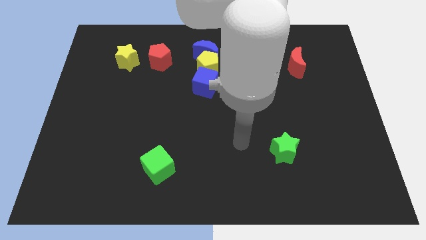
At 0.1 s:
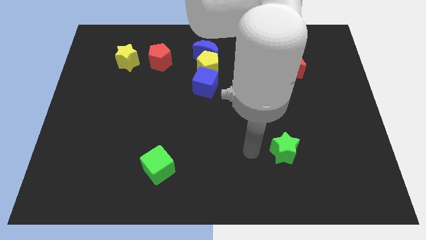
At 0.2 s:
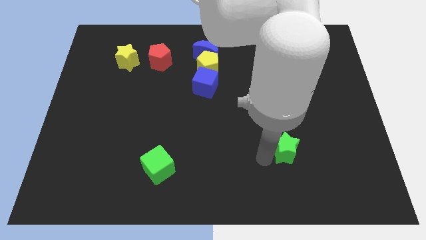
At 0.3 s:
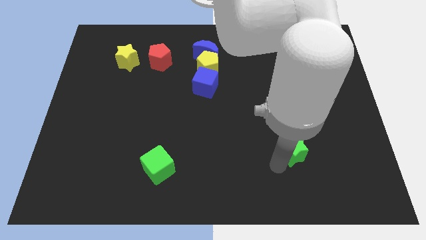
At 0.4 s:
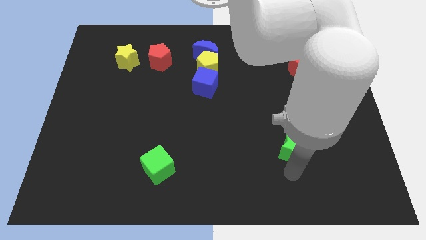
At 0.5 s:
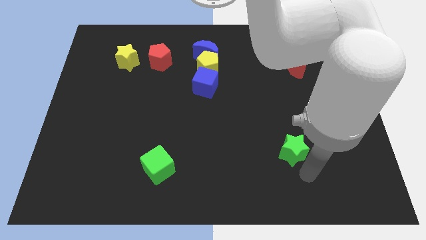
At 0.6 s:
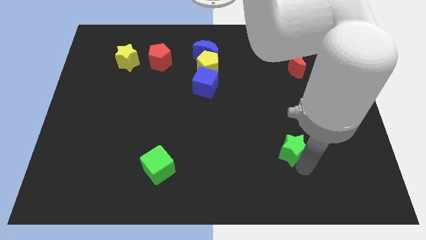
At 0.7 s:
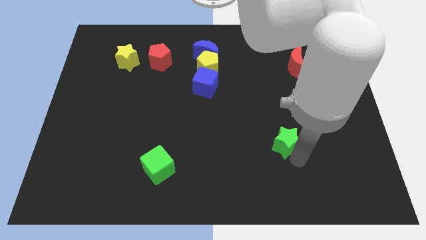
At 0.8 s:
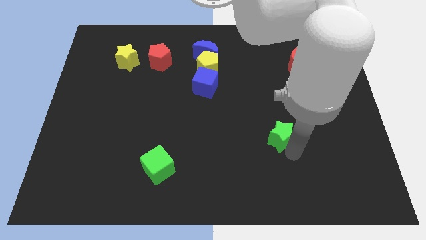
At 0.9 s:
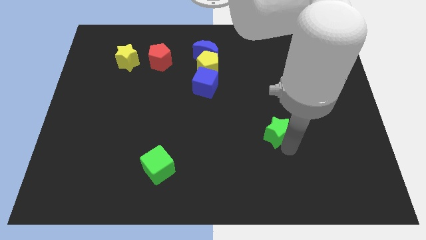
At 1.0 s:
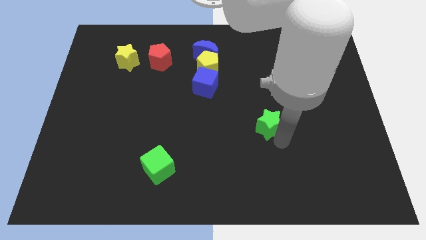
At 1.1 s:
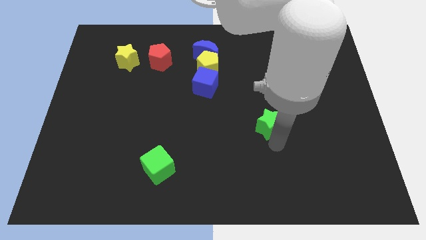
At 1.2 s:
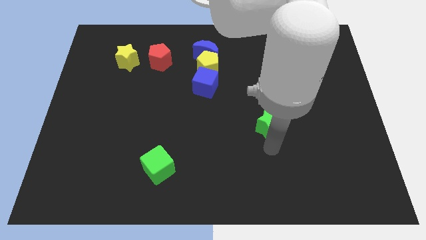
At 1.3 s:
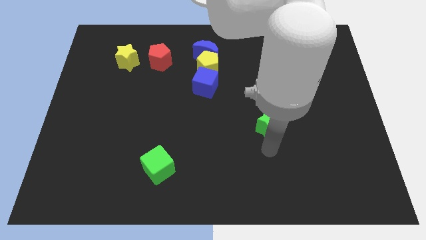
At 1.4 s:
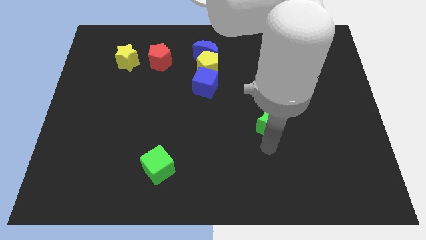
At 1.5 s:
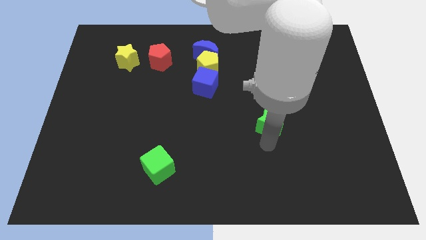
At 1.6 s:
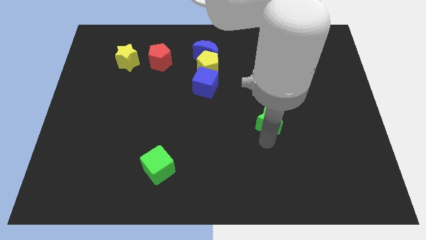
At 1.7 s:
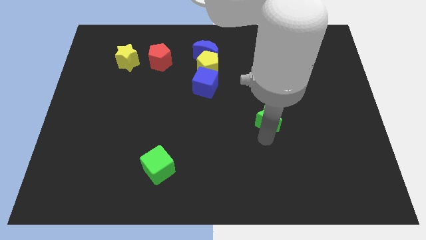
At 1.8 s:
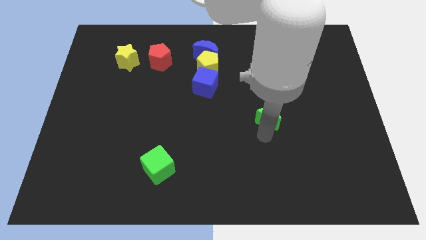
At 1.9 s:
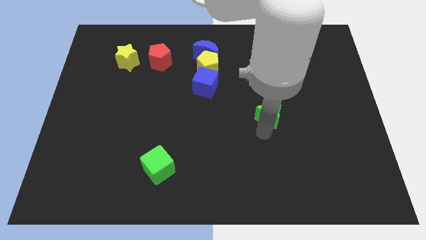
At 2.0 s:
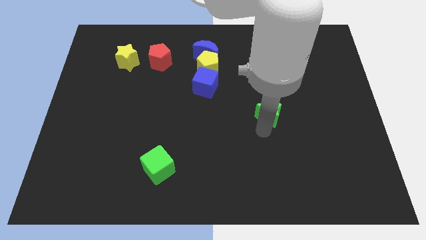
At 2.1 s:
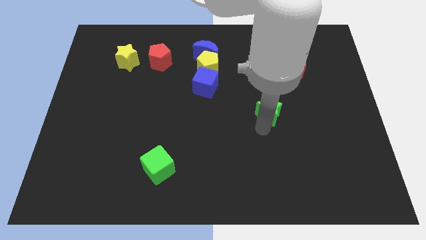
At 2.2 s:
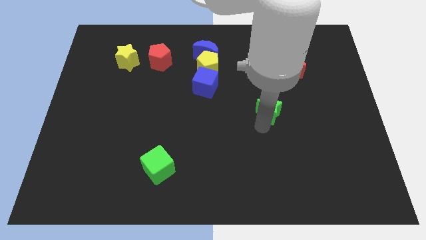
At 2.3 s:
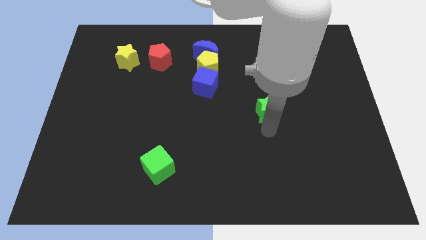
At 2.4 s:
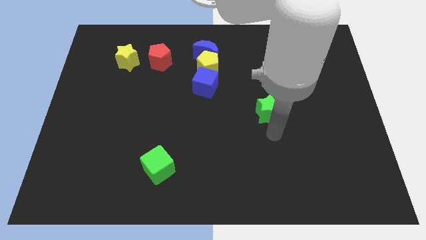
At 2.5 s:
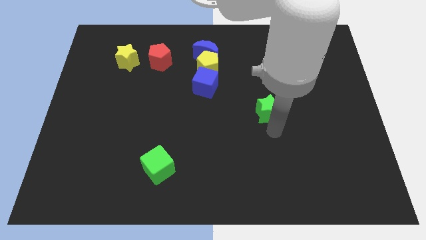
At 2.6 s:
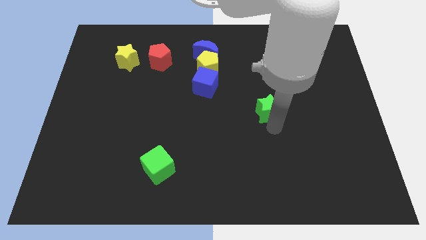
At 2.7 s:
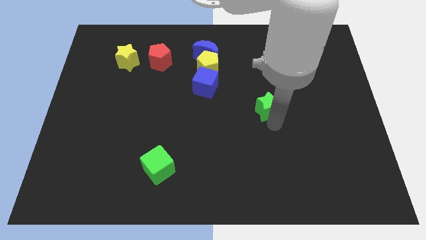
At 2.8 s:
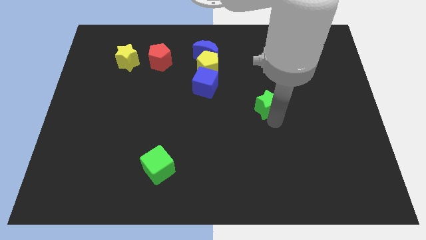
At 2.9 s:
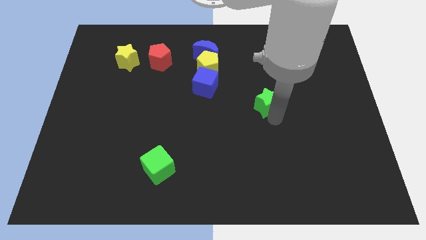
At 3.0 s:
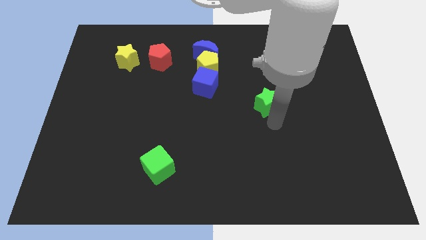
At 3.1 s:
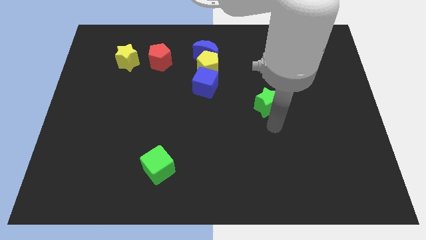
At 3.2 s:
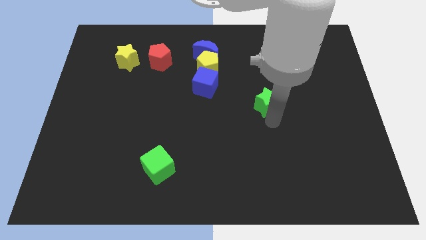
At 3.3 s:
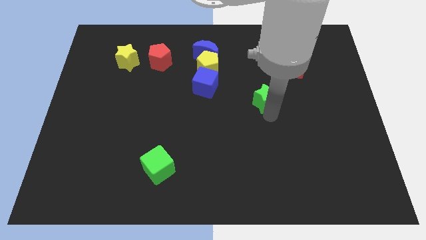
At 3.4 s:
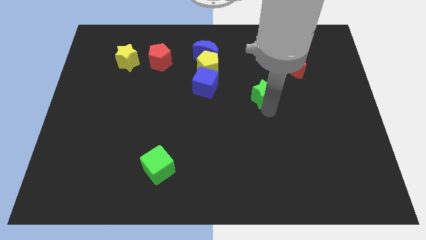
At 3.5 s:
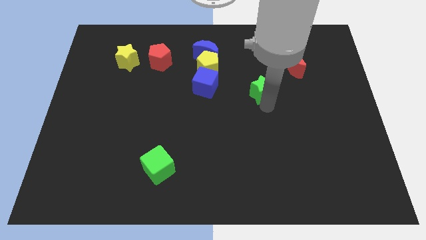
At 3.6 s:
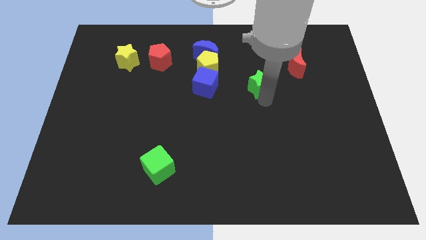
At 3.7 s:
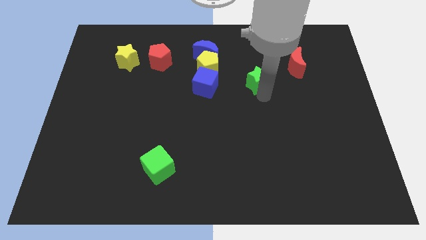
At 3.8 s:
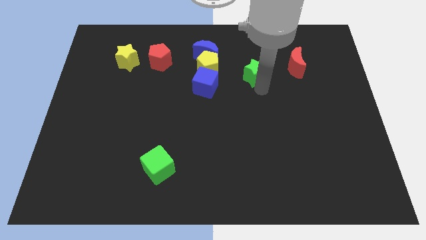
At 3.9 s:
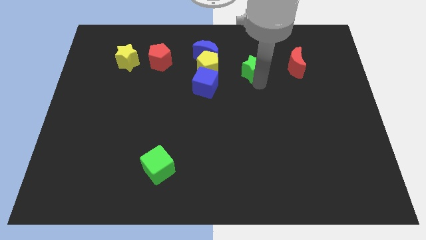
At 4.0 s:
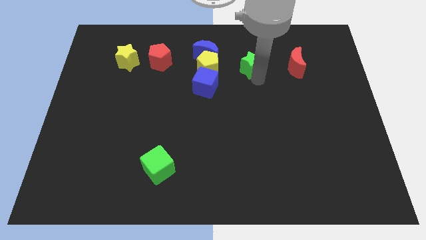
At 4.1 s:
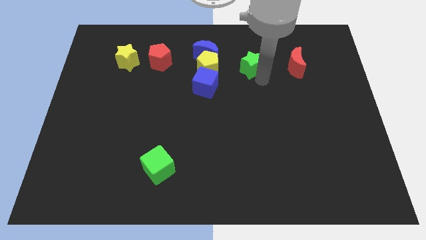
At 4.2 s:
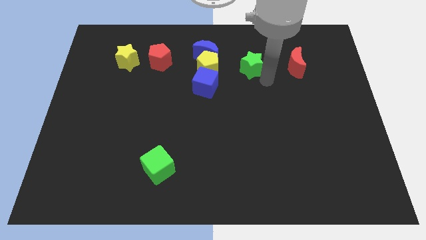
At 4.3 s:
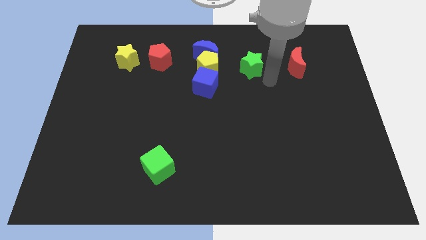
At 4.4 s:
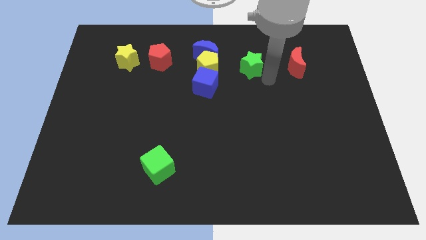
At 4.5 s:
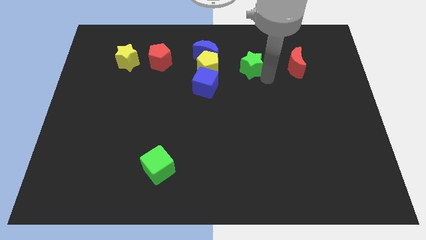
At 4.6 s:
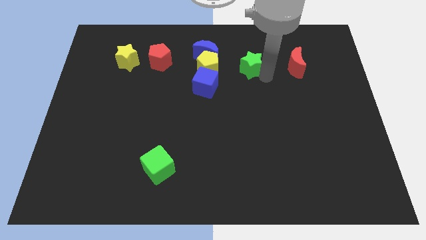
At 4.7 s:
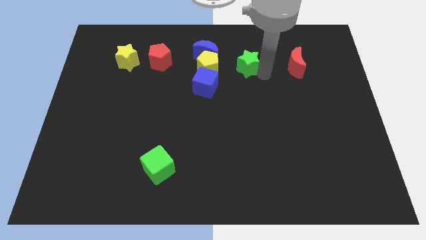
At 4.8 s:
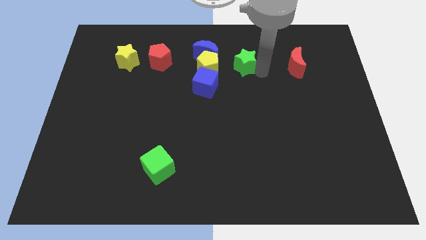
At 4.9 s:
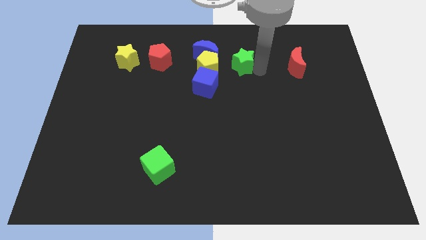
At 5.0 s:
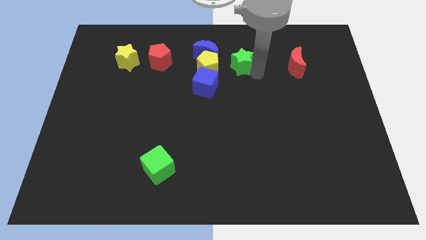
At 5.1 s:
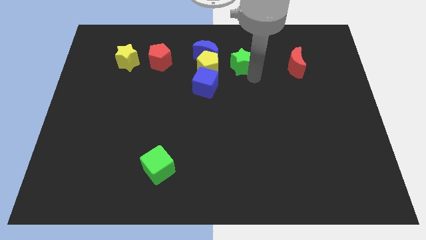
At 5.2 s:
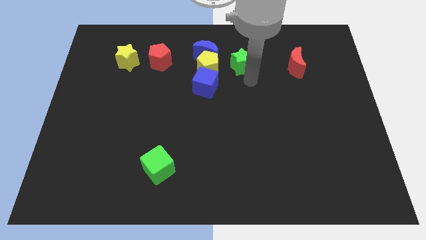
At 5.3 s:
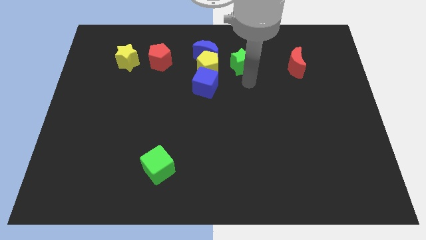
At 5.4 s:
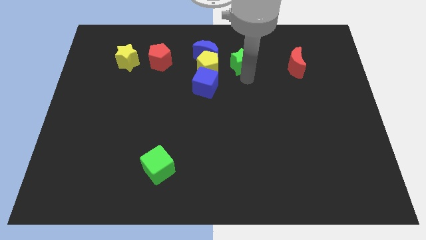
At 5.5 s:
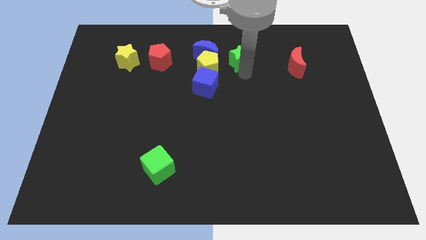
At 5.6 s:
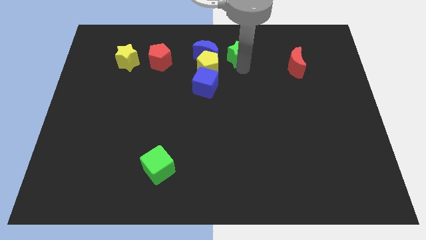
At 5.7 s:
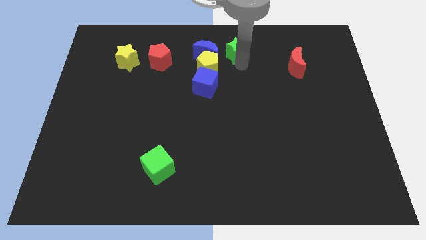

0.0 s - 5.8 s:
move the green star to the top
